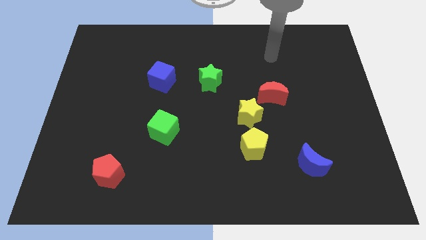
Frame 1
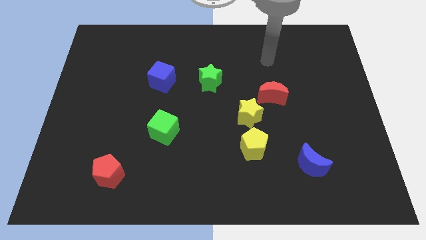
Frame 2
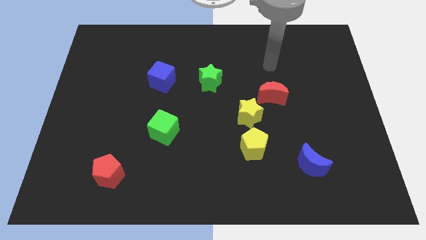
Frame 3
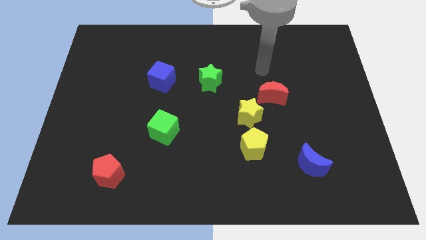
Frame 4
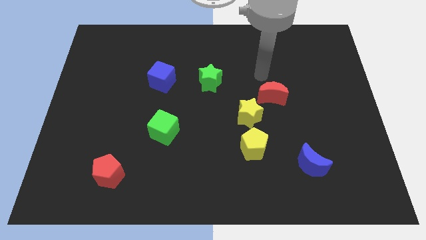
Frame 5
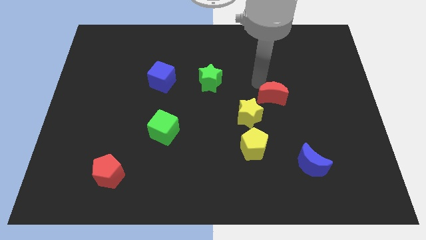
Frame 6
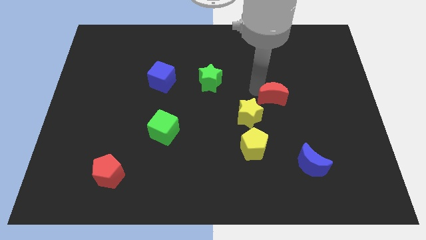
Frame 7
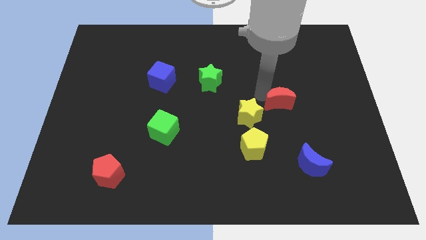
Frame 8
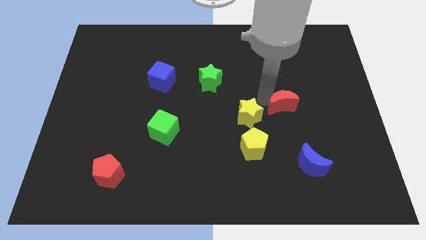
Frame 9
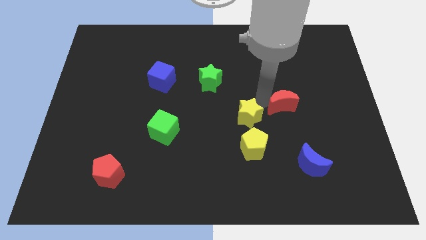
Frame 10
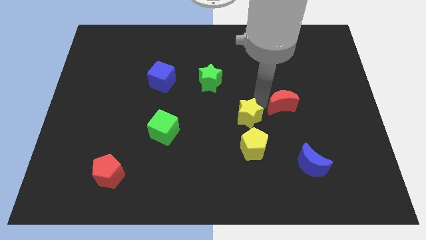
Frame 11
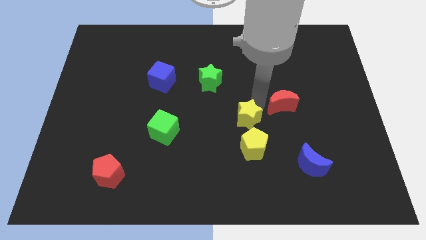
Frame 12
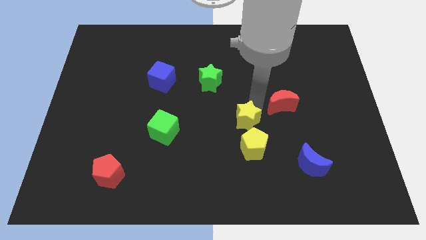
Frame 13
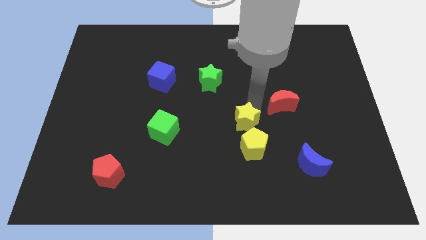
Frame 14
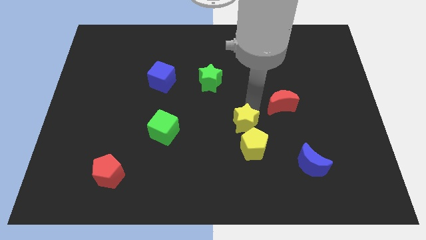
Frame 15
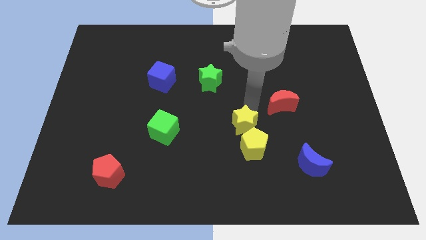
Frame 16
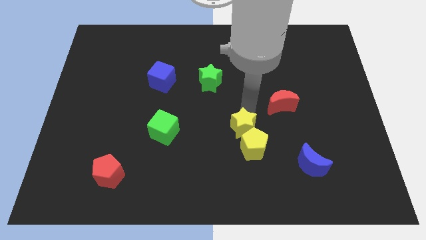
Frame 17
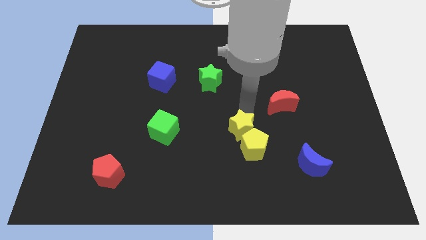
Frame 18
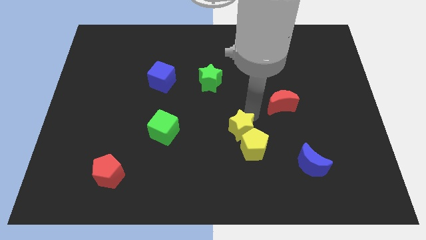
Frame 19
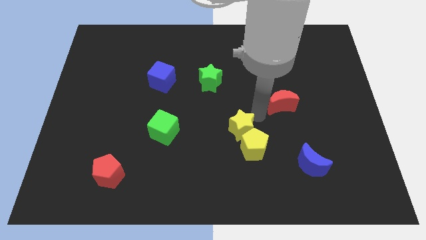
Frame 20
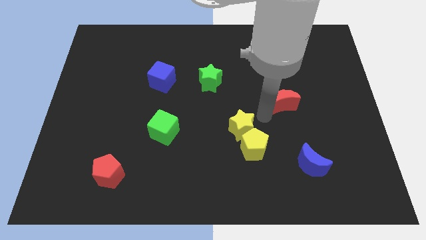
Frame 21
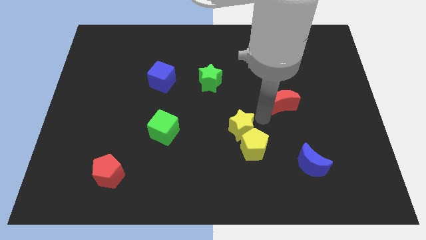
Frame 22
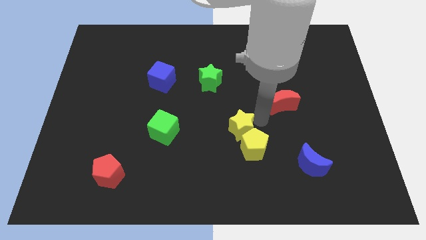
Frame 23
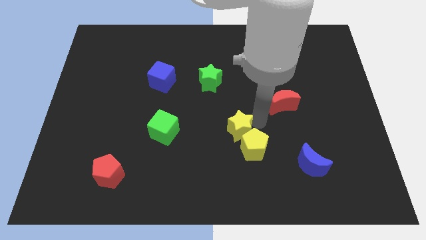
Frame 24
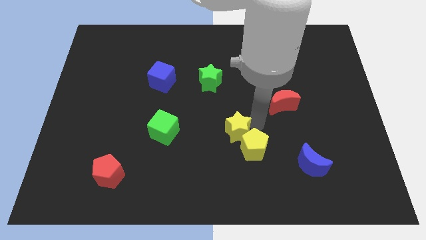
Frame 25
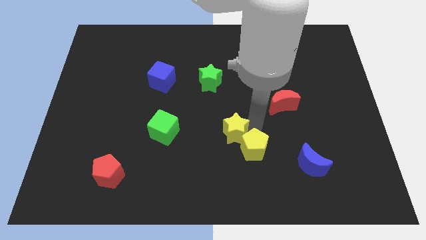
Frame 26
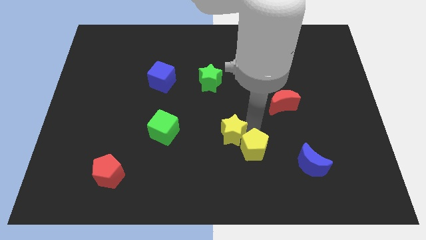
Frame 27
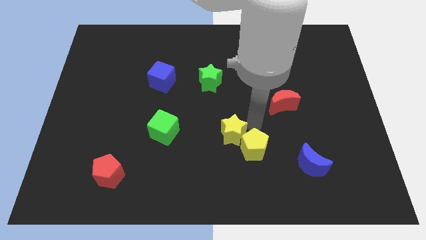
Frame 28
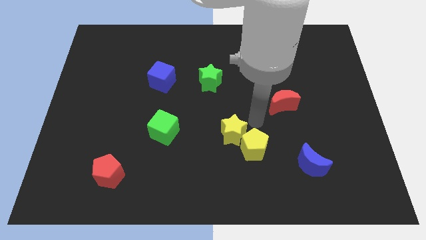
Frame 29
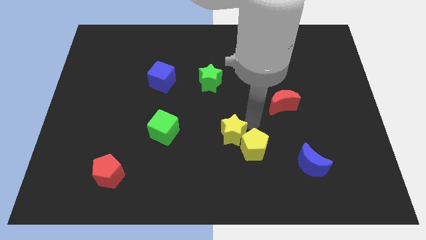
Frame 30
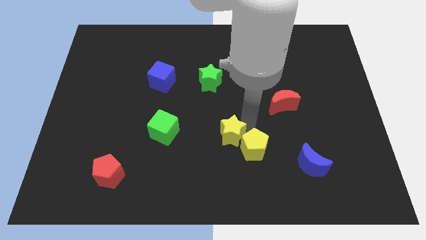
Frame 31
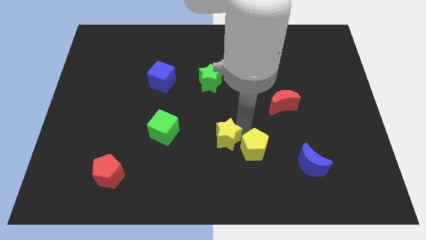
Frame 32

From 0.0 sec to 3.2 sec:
slightly slide the yellow star downwards and left diagonally

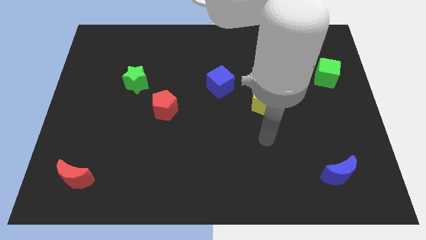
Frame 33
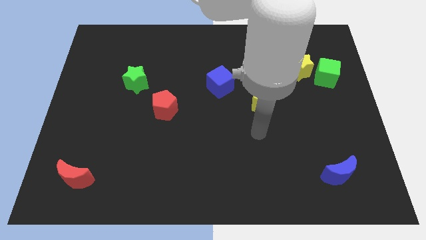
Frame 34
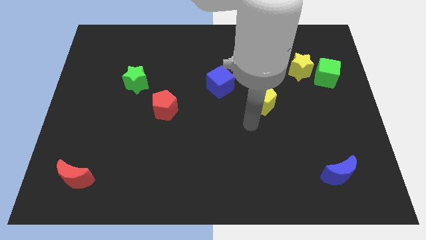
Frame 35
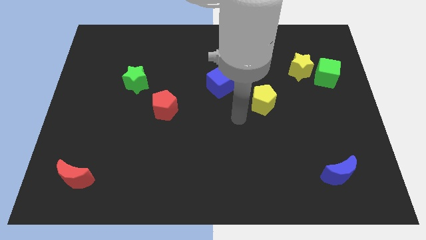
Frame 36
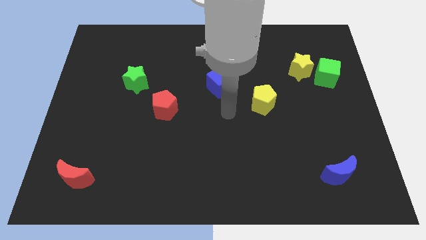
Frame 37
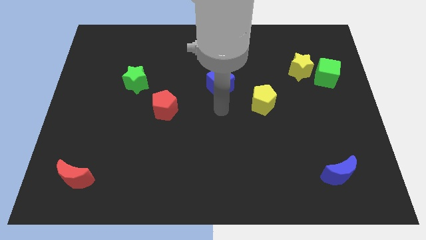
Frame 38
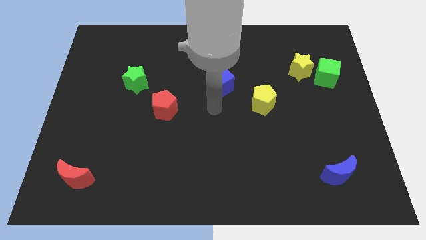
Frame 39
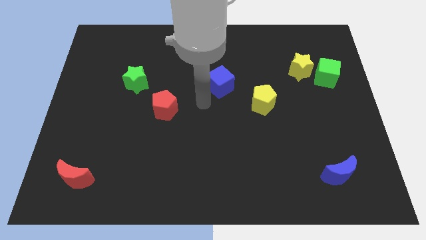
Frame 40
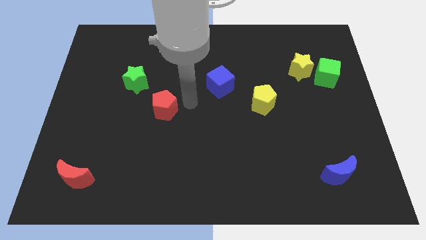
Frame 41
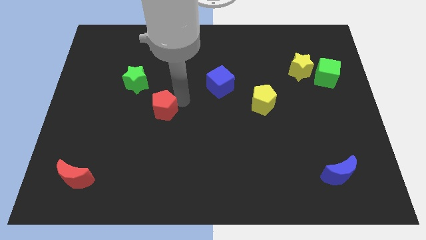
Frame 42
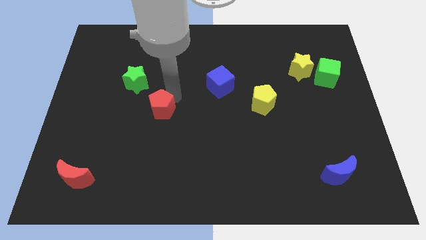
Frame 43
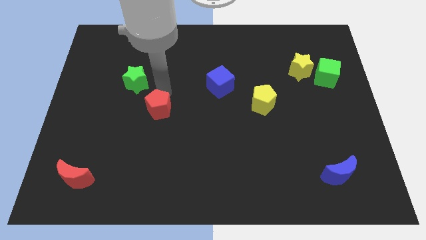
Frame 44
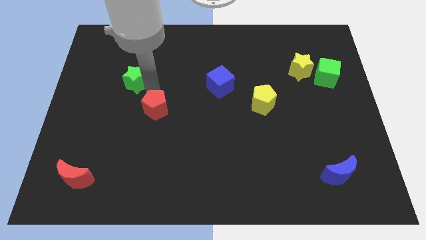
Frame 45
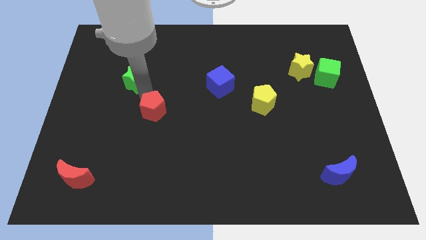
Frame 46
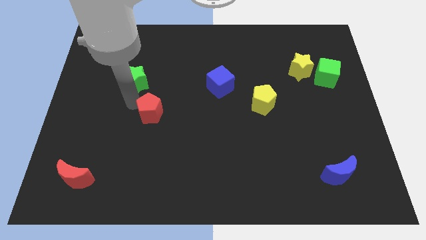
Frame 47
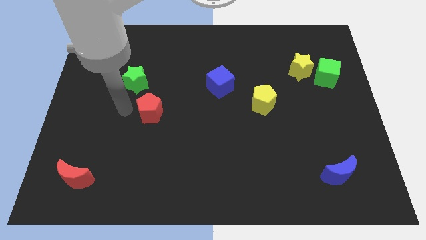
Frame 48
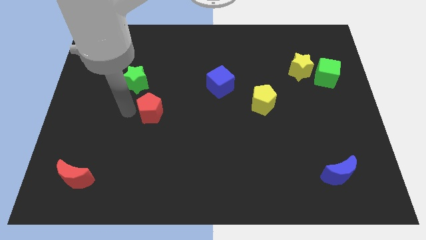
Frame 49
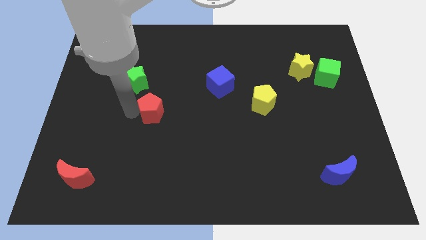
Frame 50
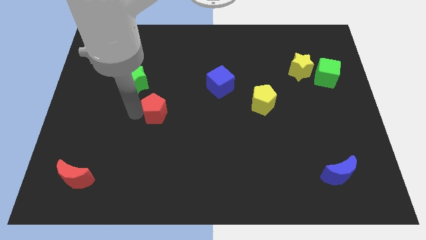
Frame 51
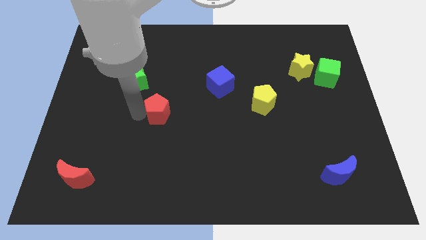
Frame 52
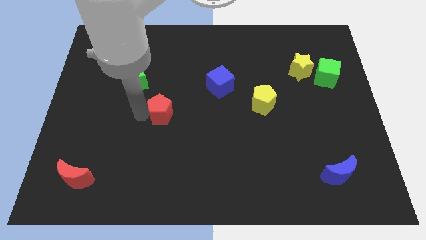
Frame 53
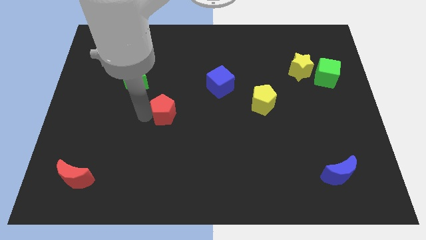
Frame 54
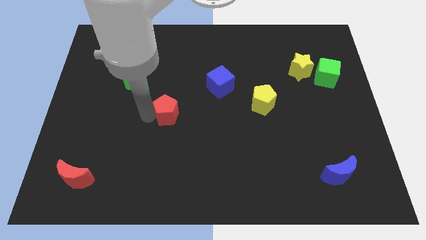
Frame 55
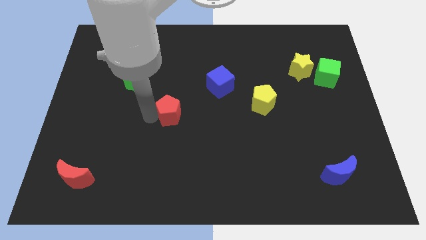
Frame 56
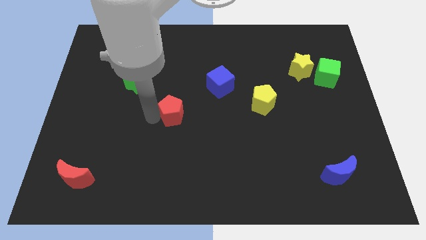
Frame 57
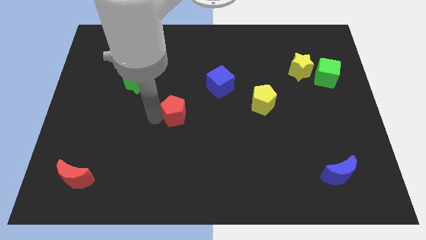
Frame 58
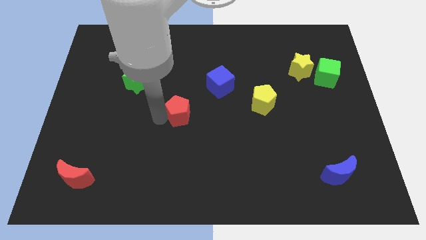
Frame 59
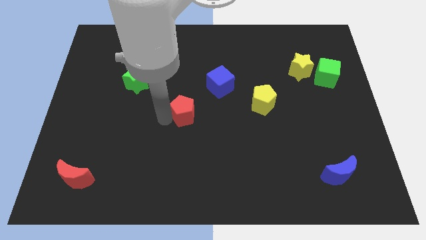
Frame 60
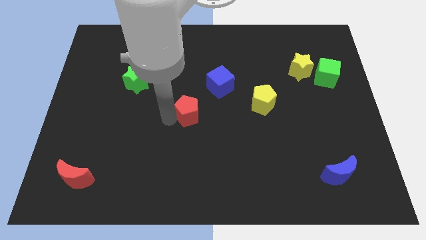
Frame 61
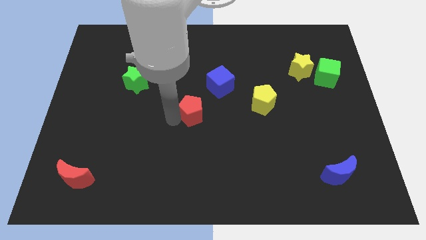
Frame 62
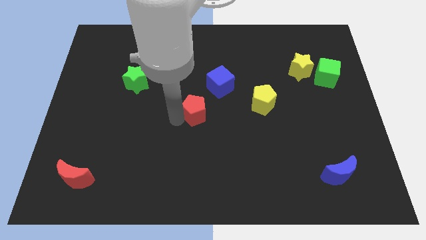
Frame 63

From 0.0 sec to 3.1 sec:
slide the red pentagon right a little

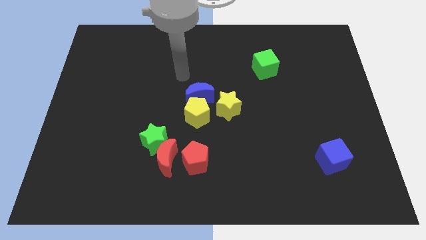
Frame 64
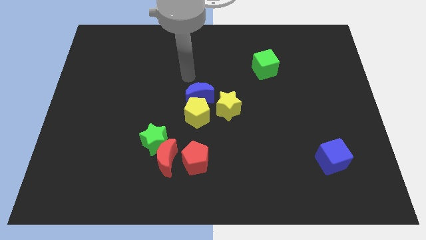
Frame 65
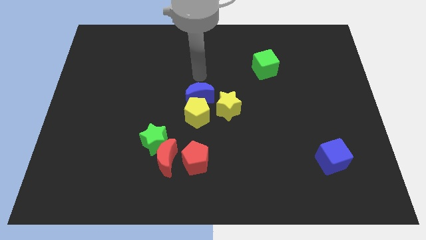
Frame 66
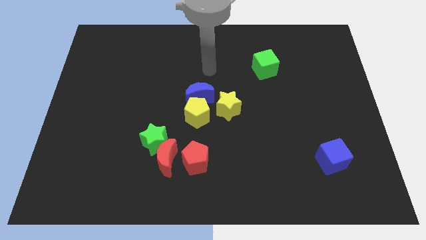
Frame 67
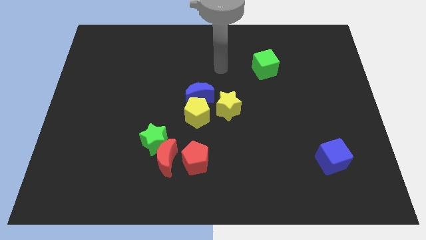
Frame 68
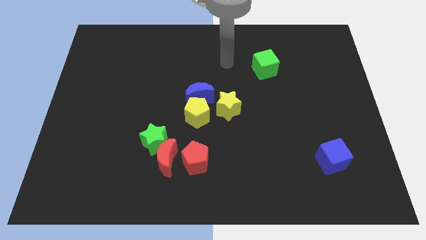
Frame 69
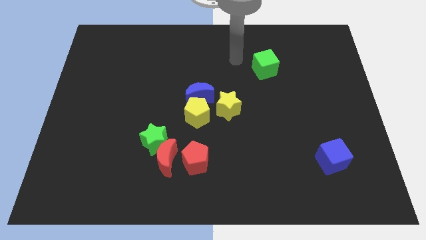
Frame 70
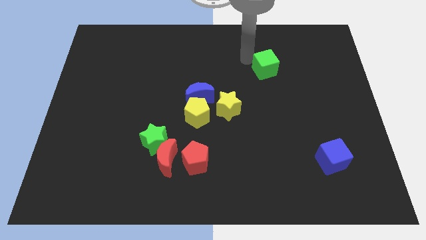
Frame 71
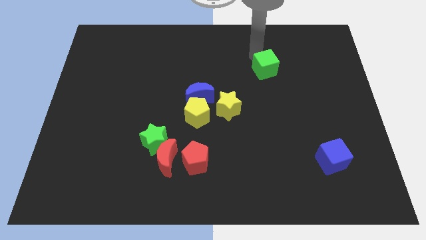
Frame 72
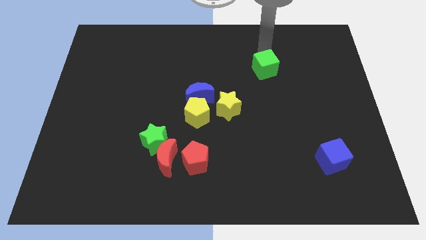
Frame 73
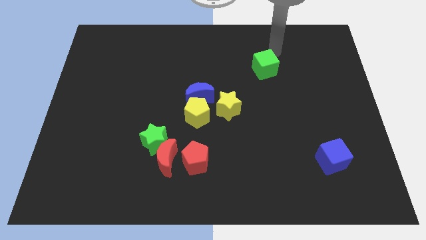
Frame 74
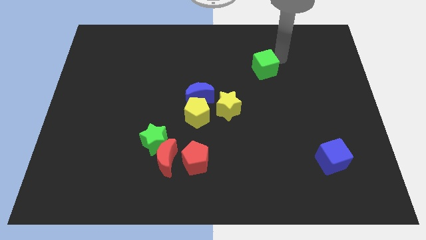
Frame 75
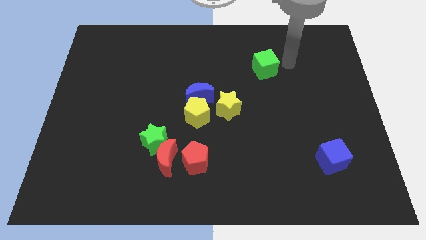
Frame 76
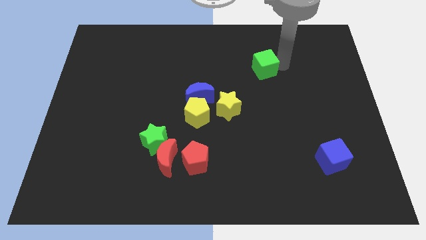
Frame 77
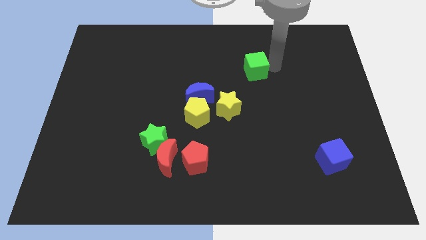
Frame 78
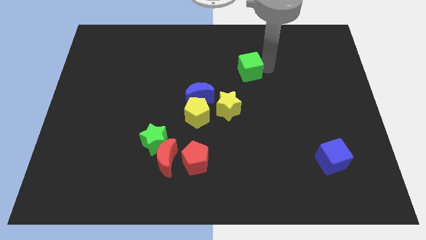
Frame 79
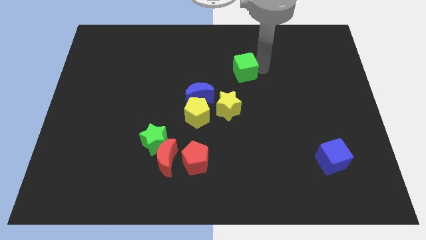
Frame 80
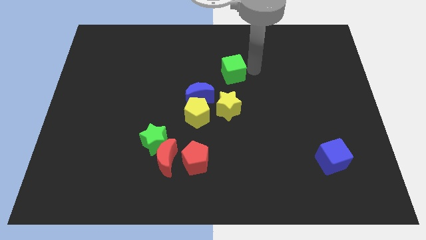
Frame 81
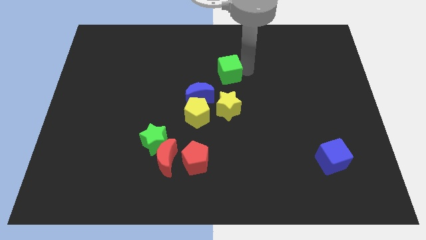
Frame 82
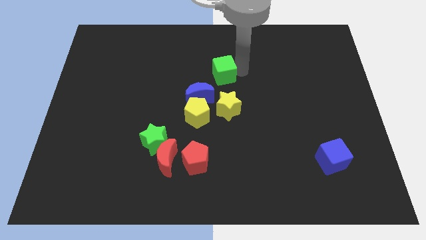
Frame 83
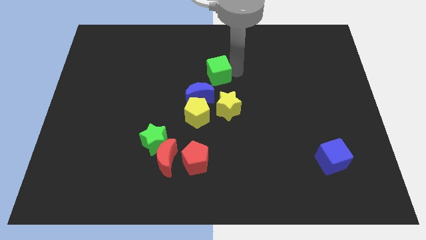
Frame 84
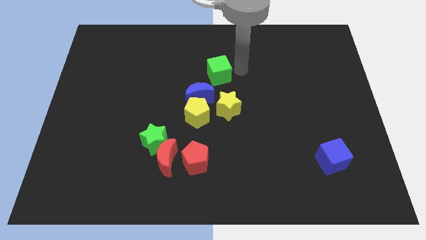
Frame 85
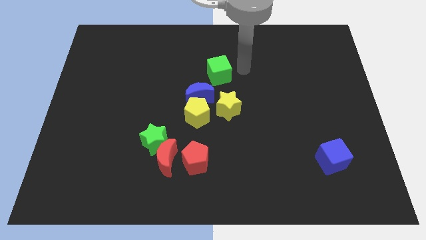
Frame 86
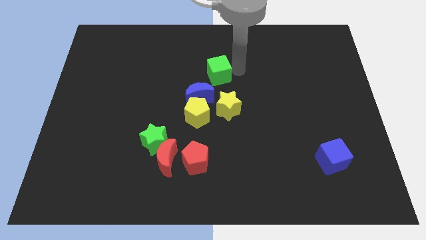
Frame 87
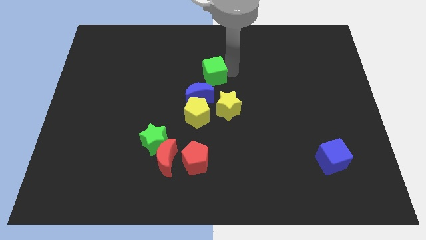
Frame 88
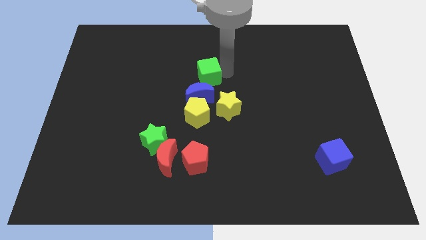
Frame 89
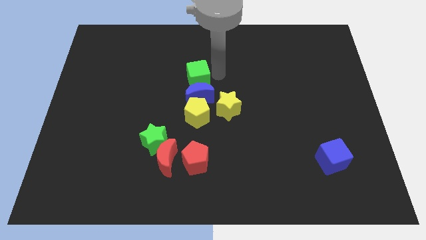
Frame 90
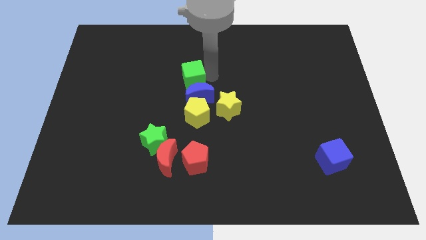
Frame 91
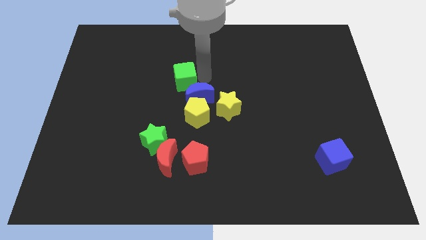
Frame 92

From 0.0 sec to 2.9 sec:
move the green cube to the left
